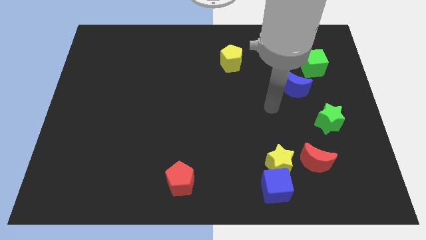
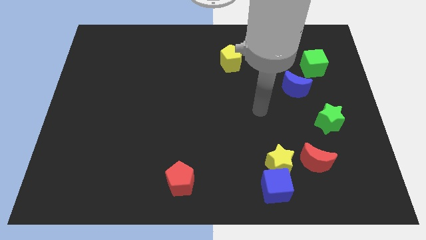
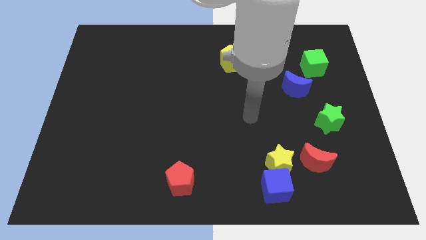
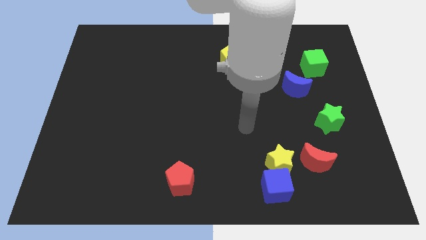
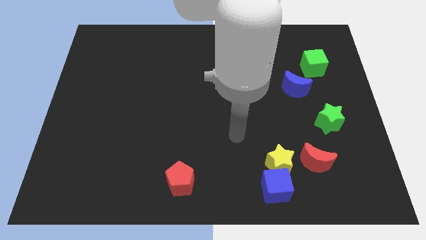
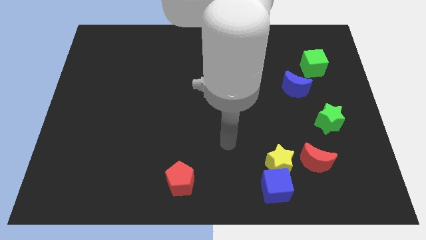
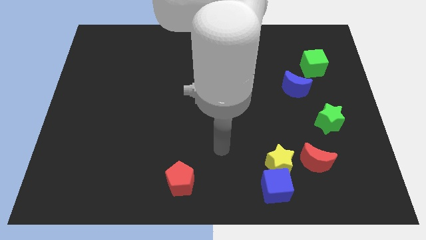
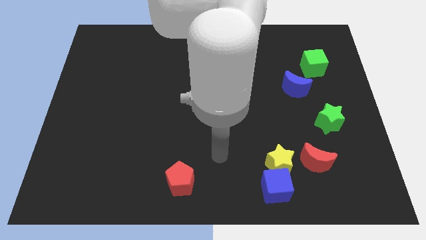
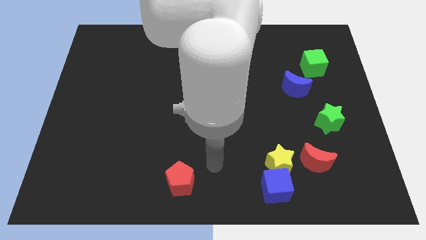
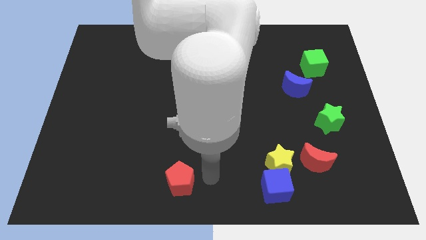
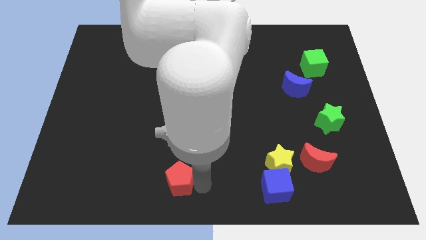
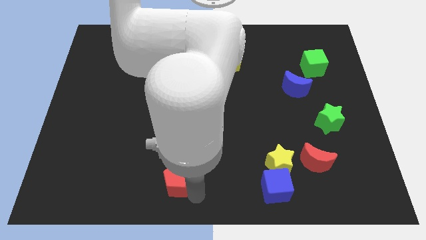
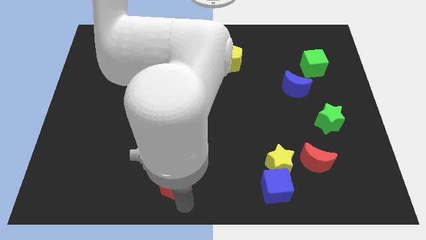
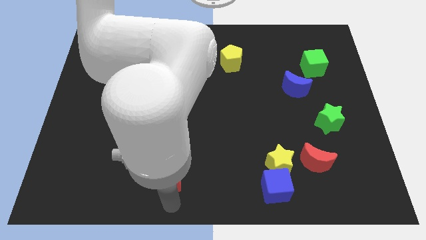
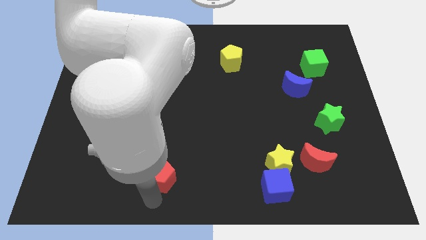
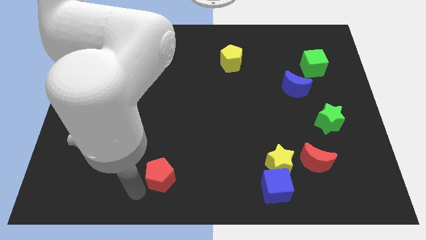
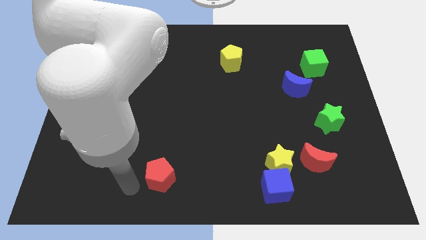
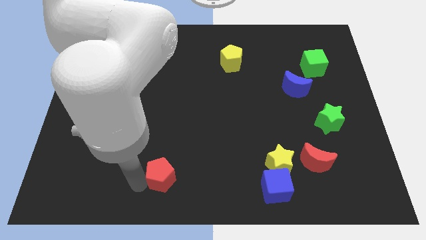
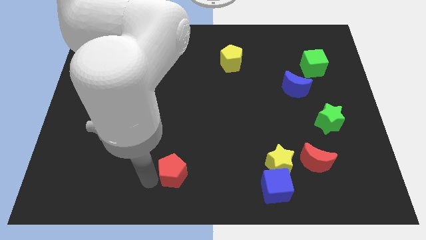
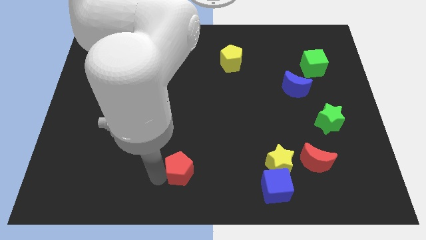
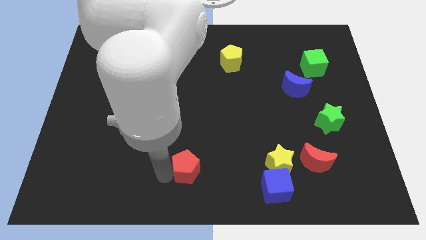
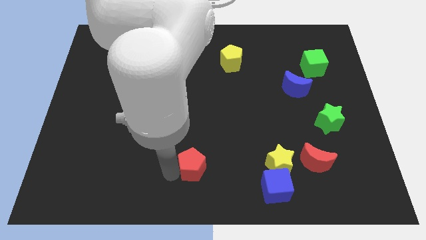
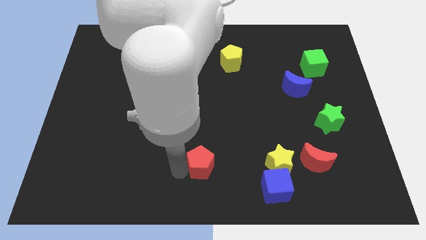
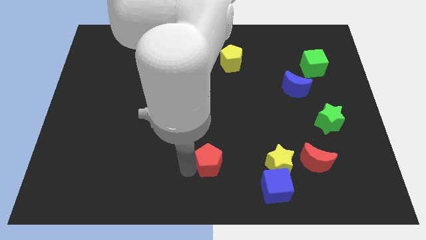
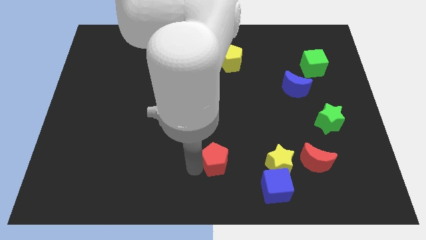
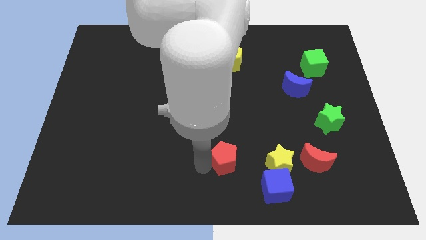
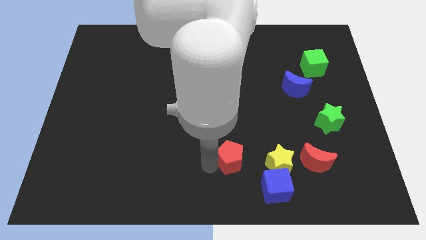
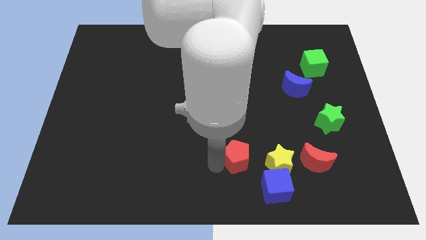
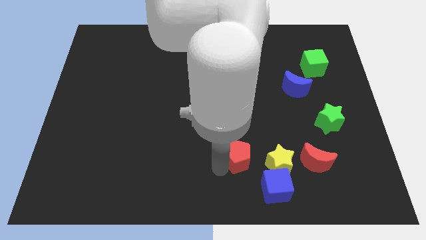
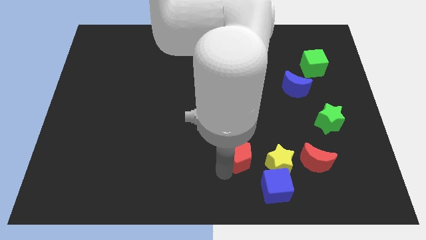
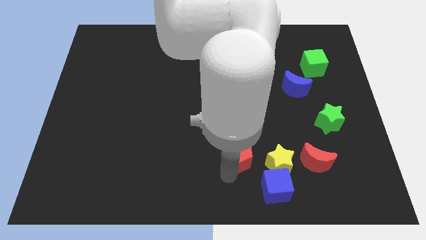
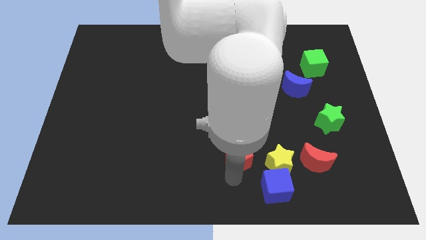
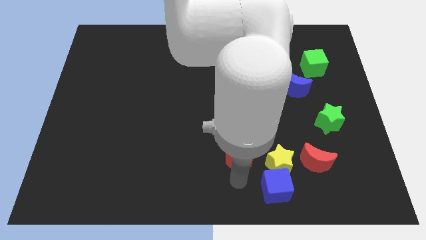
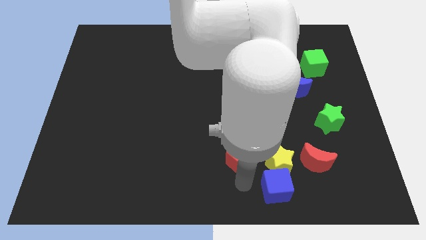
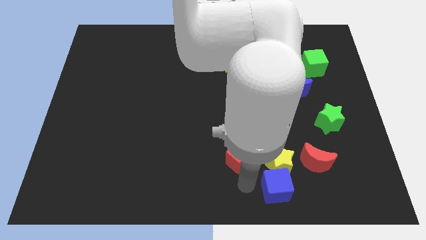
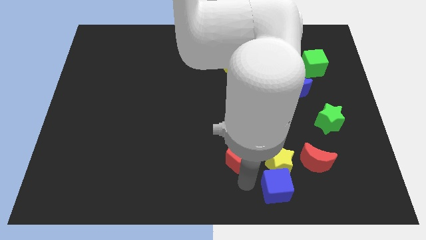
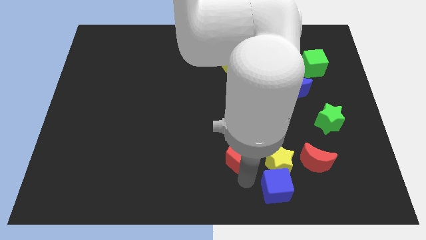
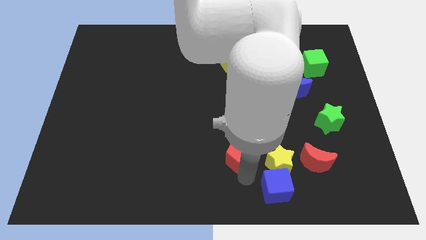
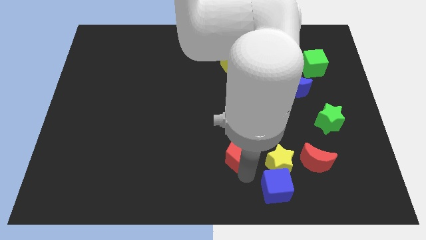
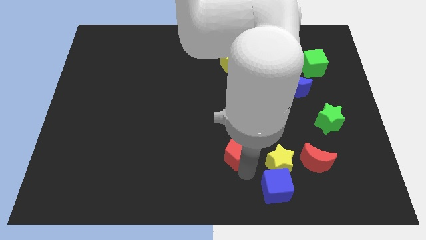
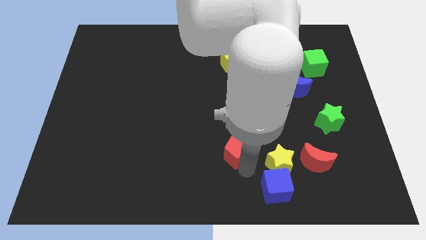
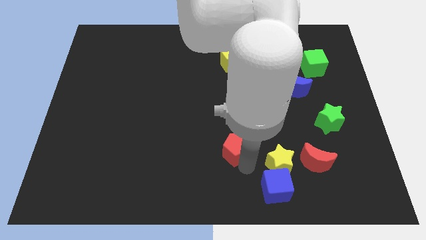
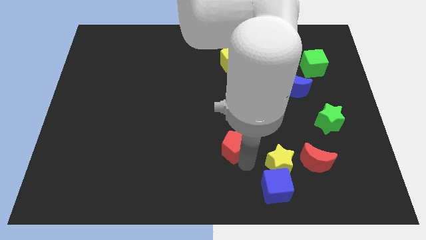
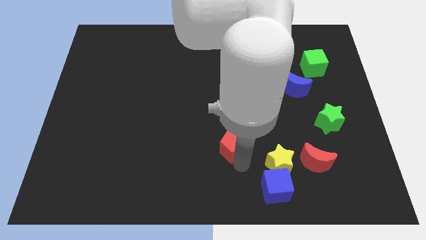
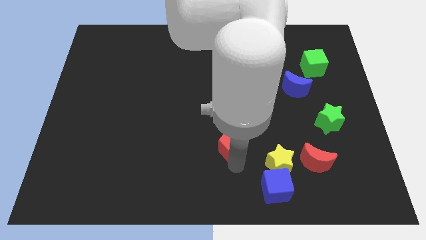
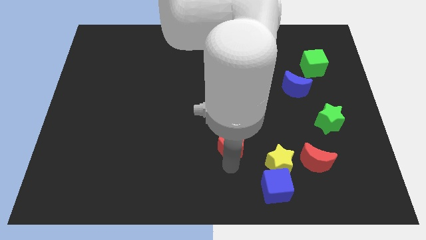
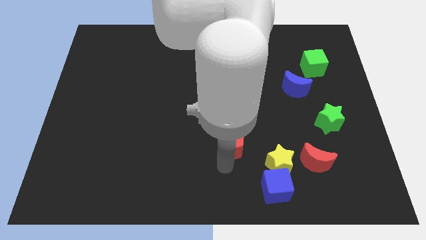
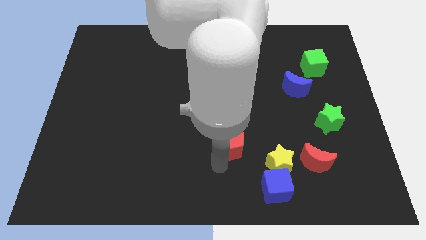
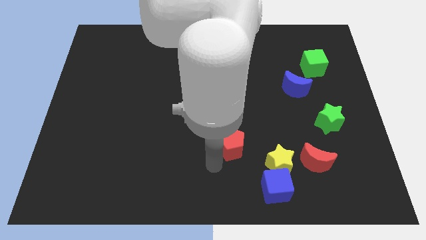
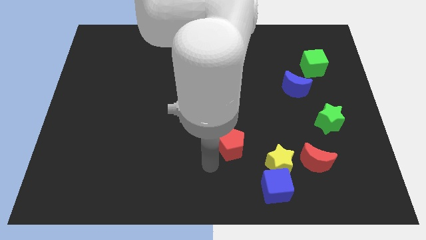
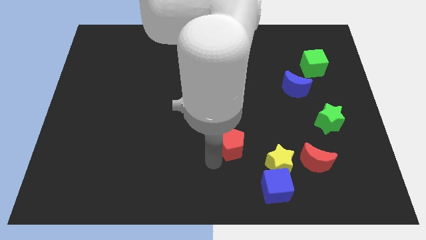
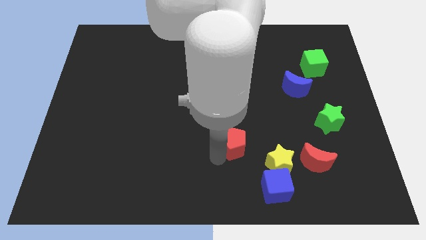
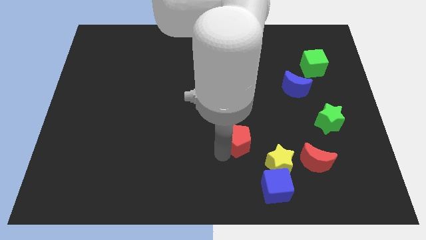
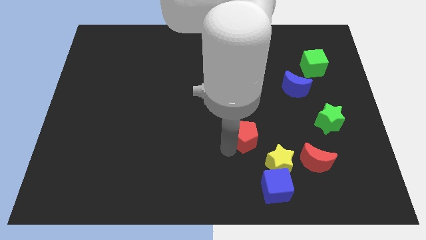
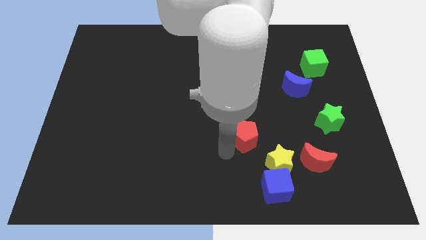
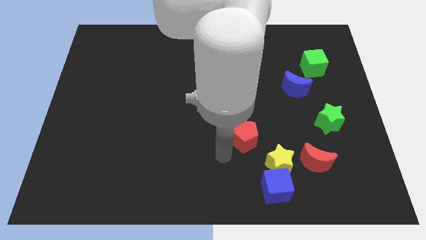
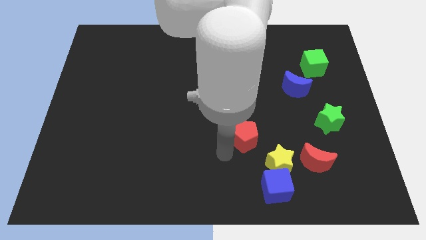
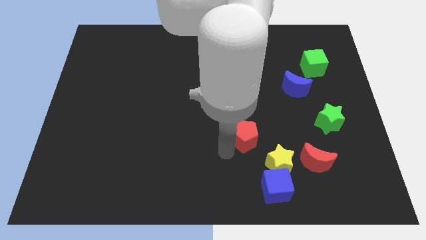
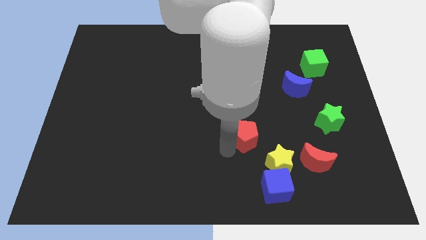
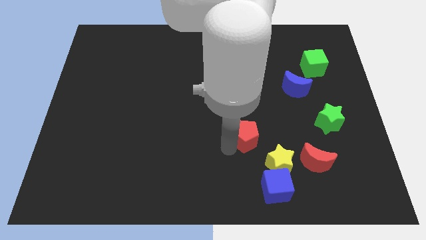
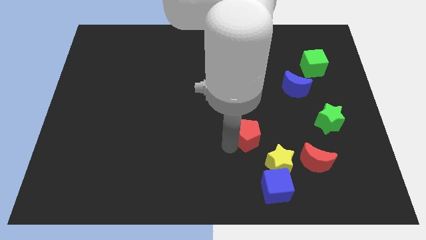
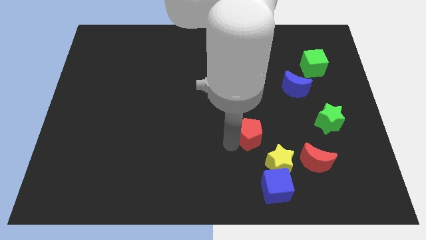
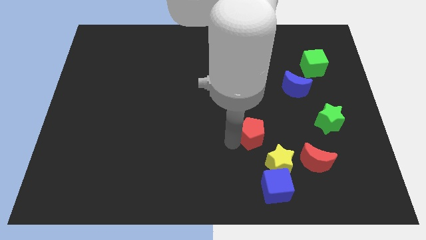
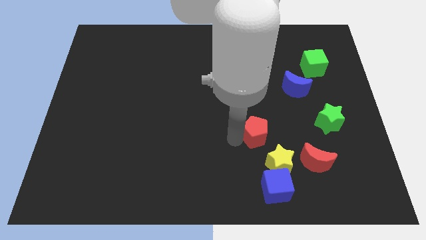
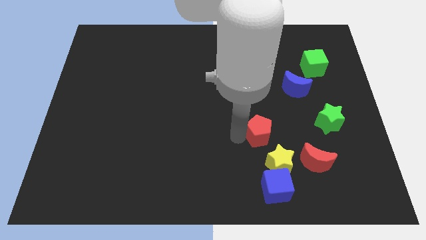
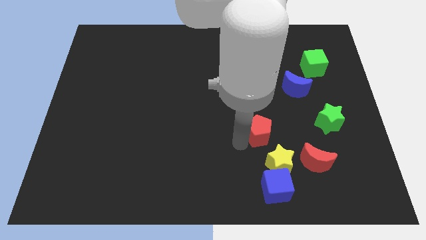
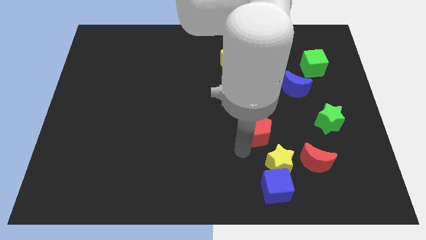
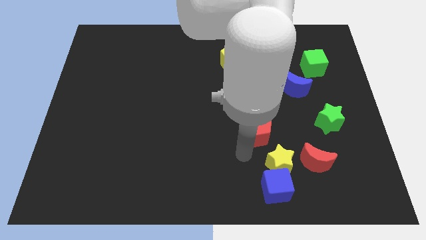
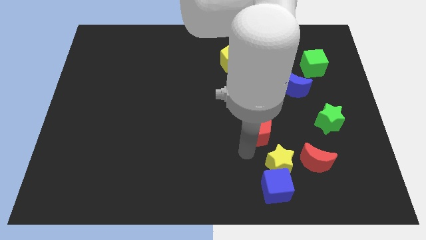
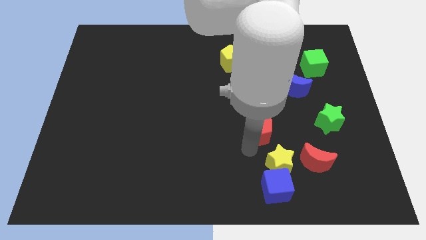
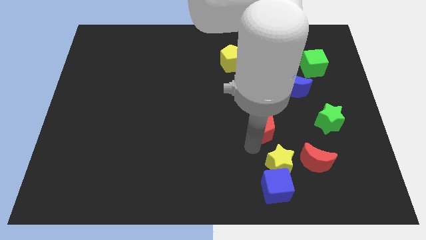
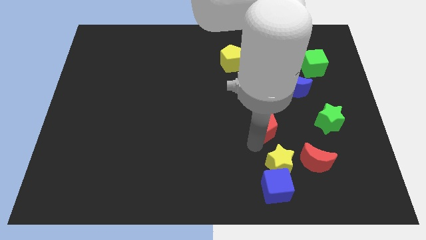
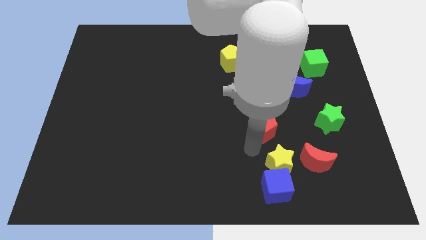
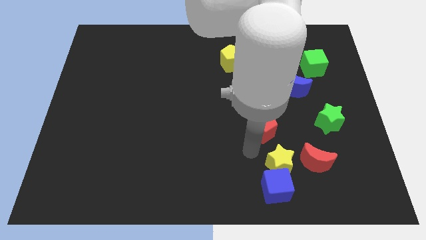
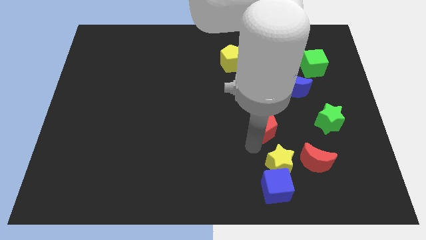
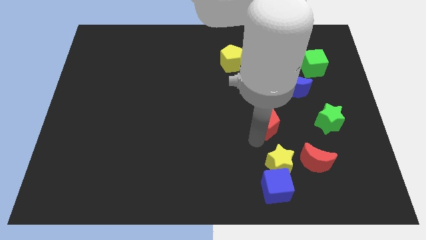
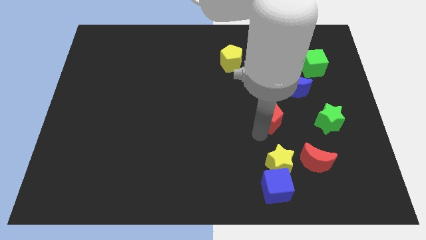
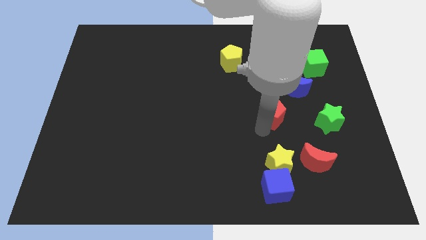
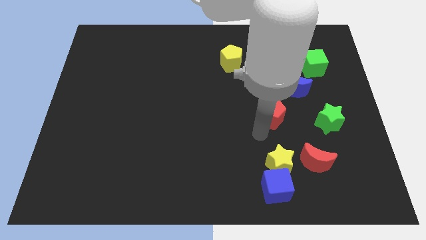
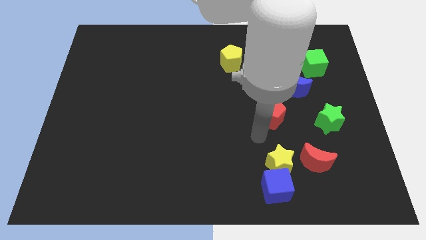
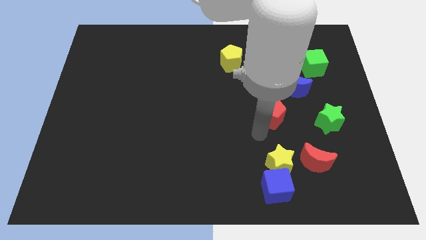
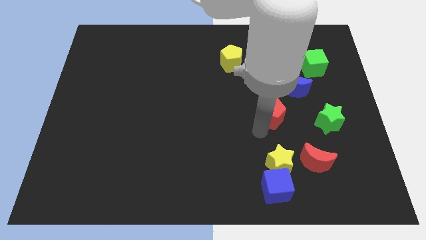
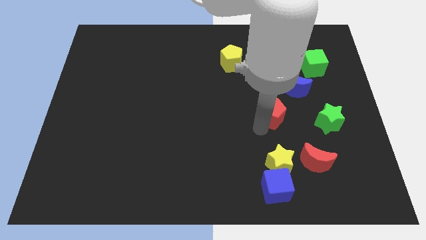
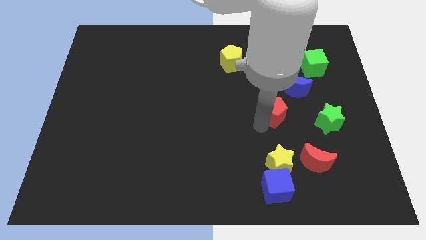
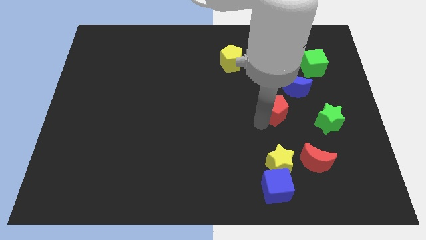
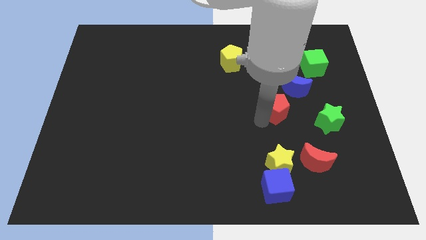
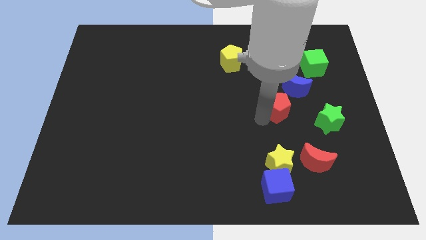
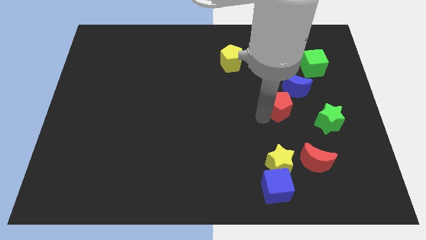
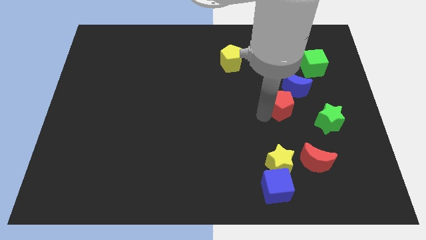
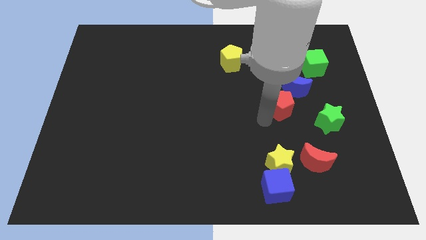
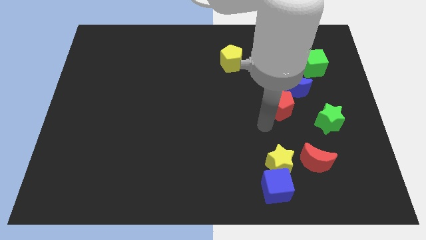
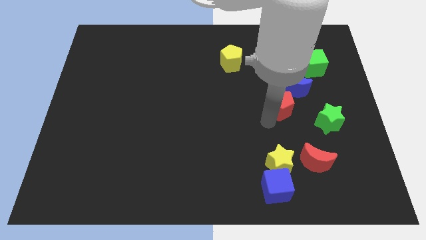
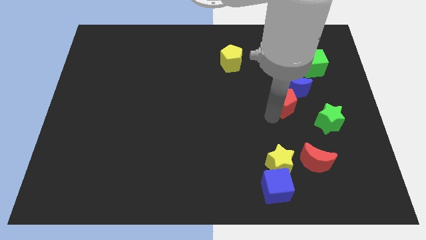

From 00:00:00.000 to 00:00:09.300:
move the red pentagon next to the blue moon
